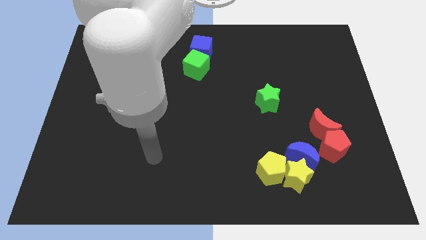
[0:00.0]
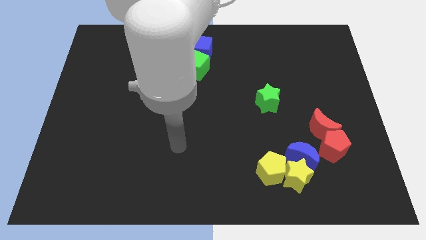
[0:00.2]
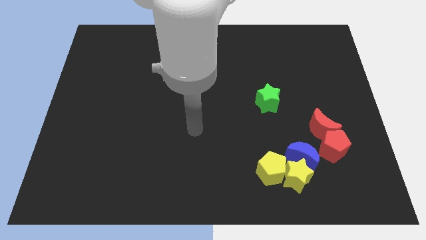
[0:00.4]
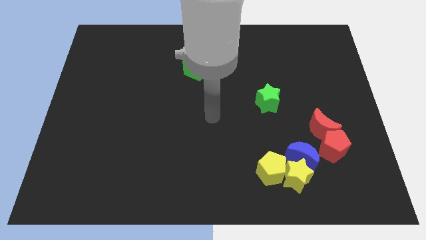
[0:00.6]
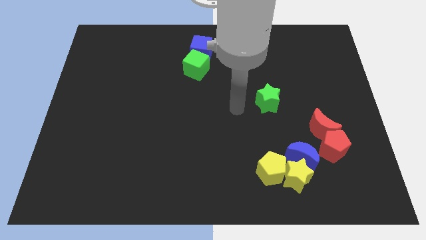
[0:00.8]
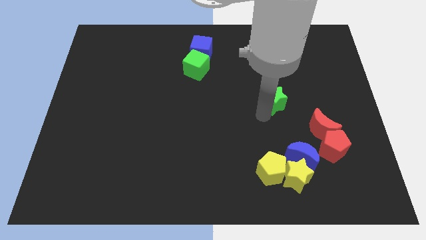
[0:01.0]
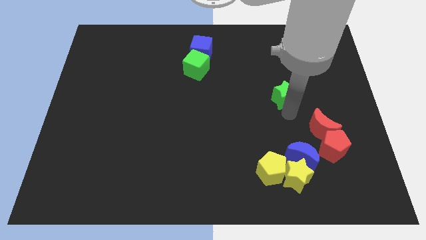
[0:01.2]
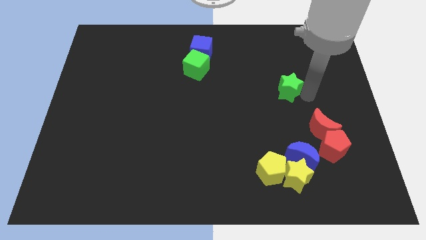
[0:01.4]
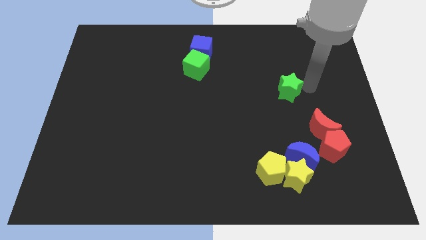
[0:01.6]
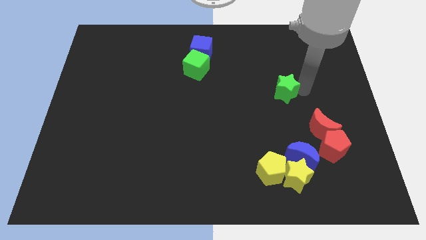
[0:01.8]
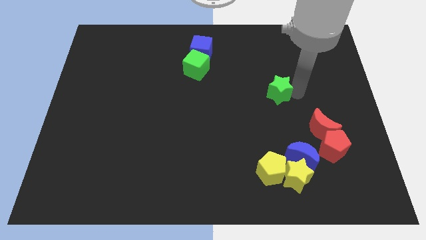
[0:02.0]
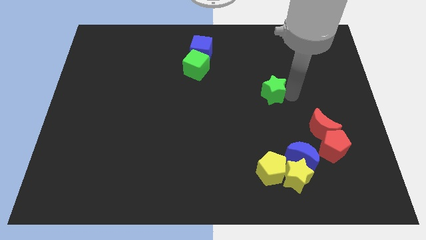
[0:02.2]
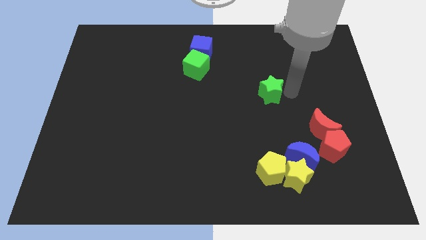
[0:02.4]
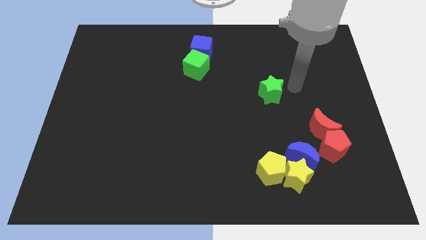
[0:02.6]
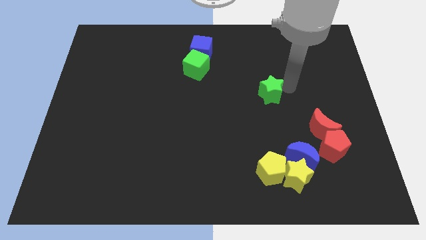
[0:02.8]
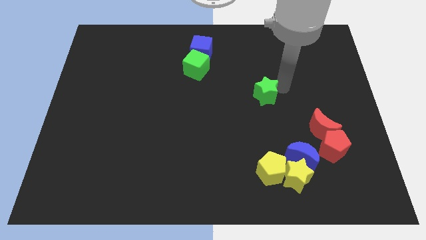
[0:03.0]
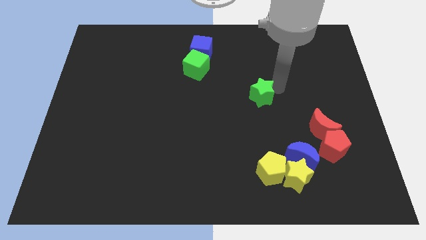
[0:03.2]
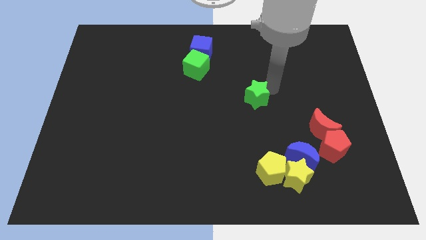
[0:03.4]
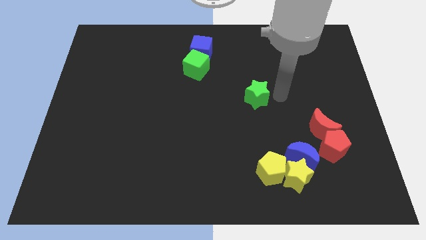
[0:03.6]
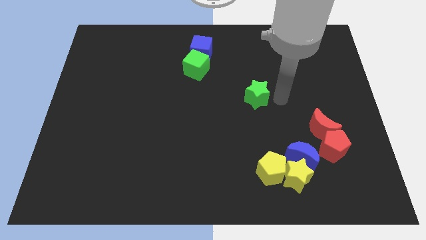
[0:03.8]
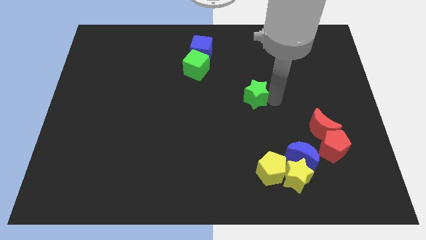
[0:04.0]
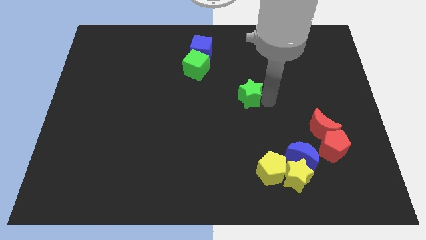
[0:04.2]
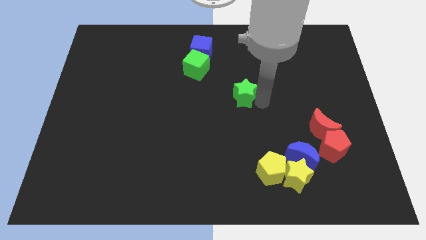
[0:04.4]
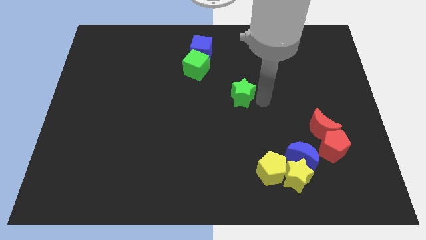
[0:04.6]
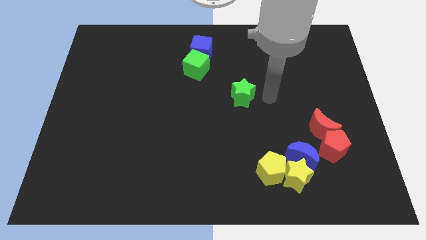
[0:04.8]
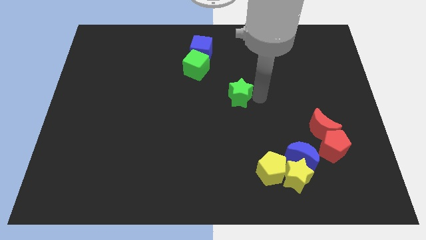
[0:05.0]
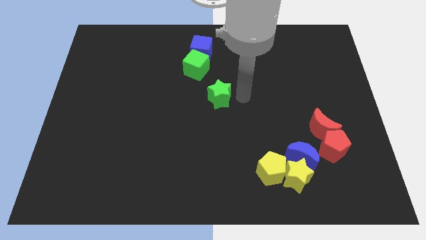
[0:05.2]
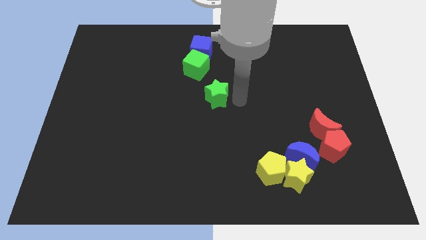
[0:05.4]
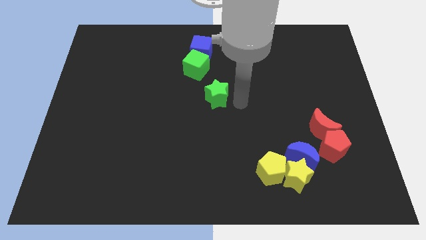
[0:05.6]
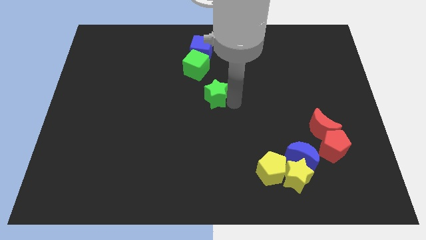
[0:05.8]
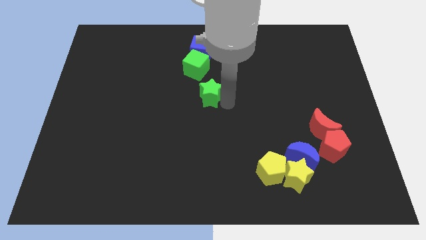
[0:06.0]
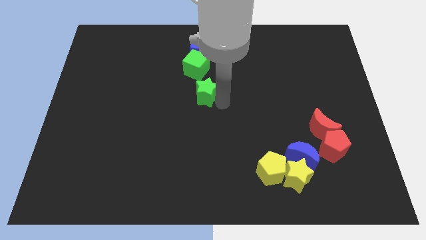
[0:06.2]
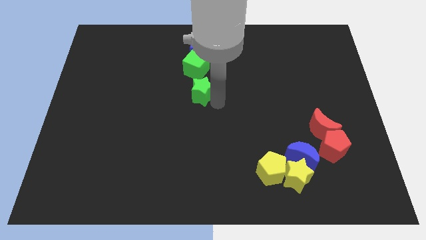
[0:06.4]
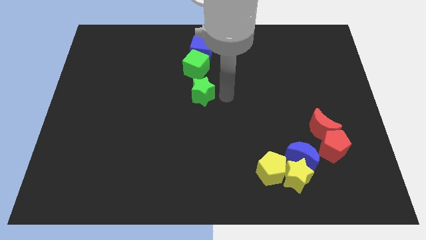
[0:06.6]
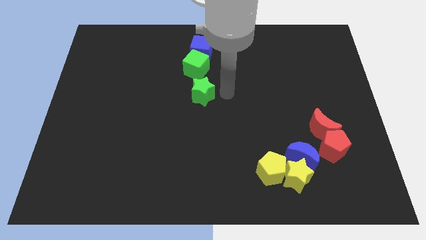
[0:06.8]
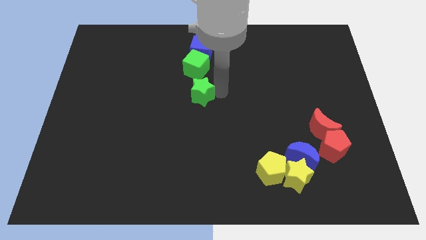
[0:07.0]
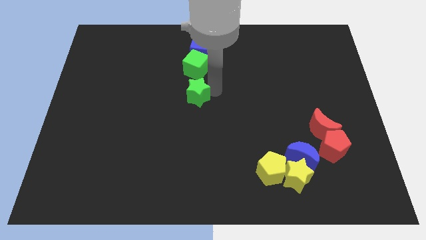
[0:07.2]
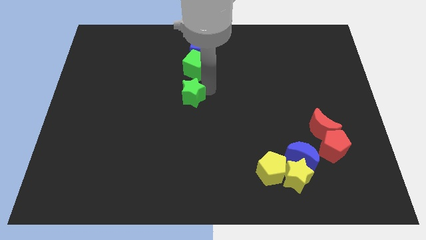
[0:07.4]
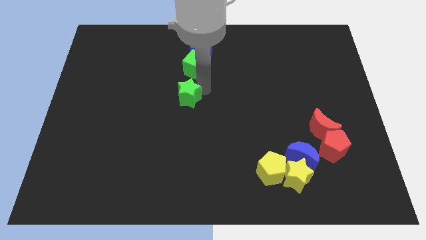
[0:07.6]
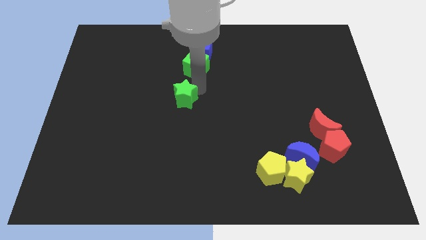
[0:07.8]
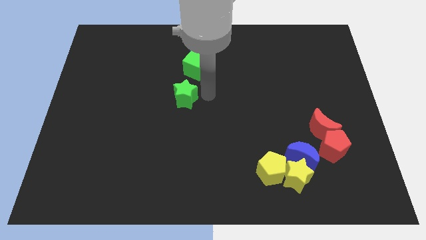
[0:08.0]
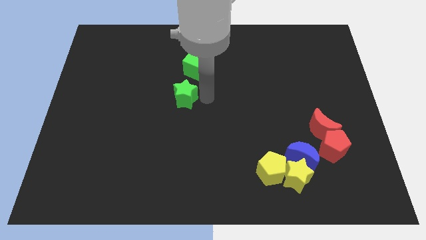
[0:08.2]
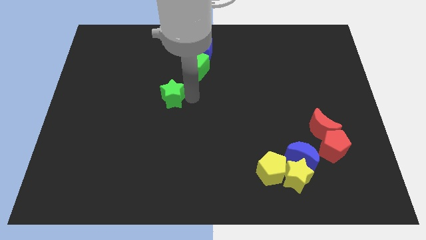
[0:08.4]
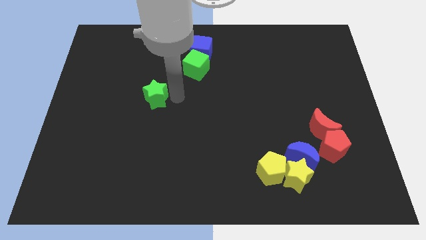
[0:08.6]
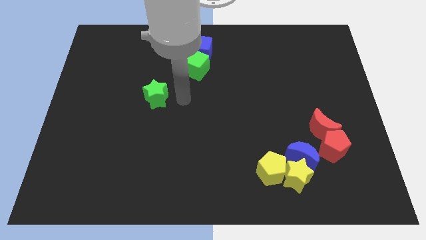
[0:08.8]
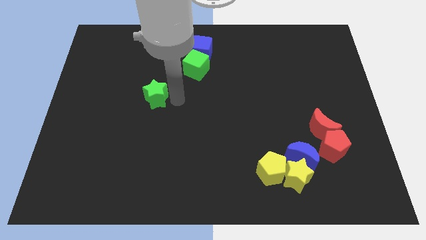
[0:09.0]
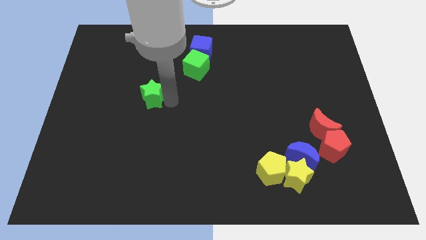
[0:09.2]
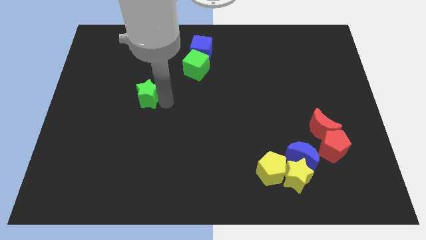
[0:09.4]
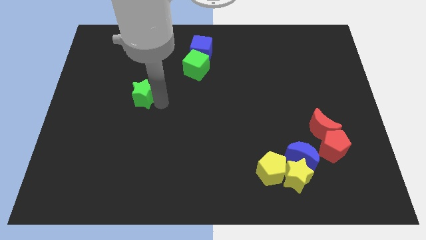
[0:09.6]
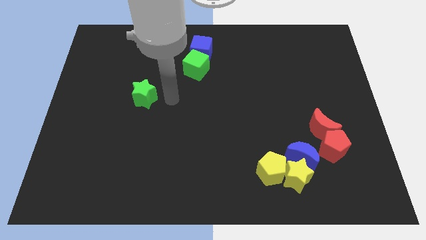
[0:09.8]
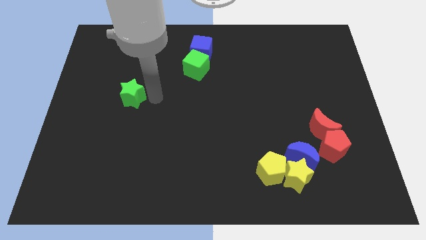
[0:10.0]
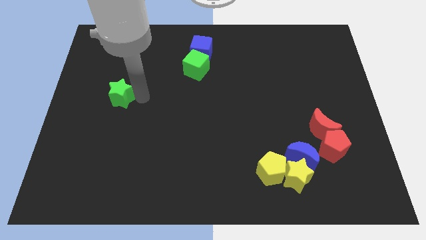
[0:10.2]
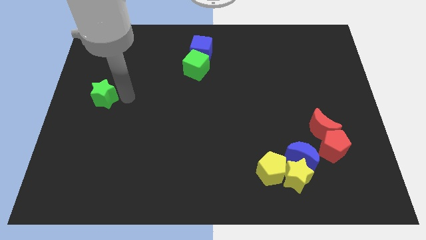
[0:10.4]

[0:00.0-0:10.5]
move the green star to the center left
